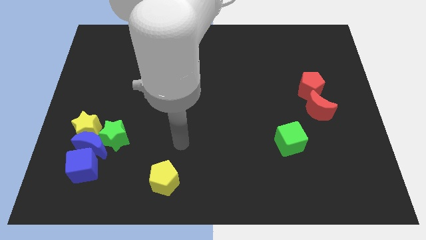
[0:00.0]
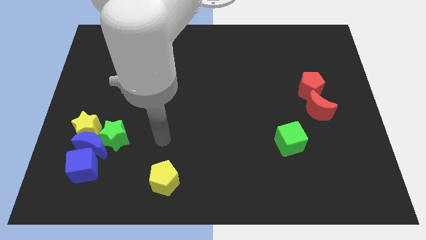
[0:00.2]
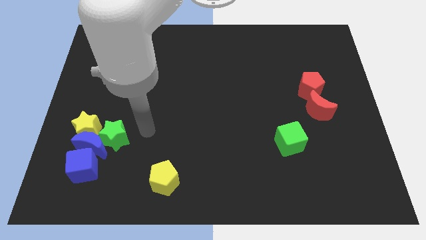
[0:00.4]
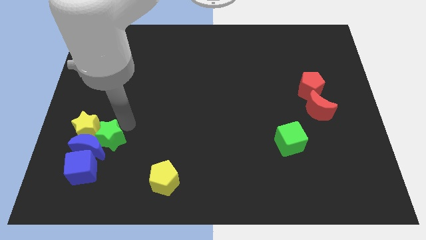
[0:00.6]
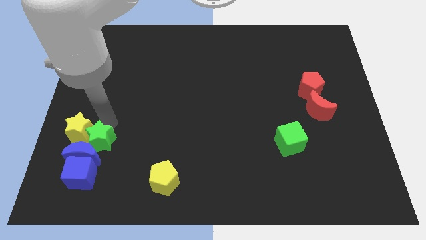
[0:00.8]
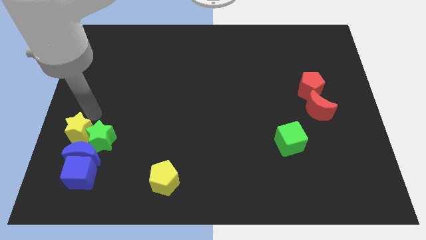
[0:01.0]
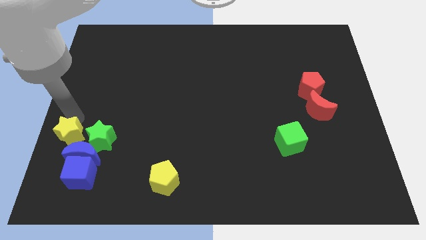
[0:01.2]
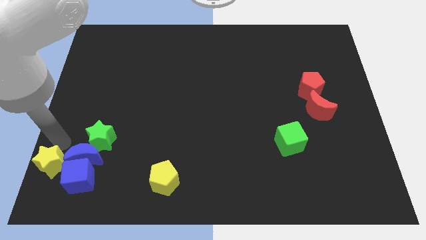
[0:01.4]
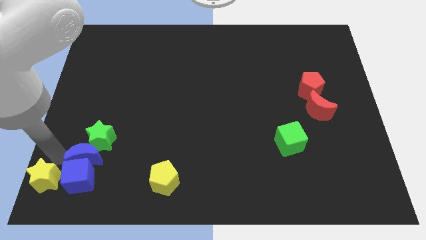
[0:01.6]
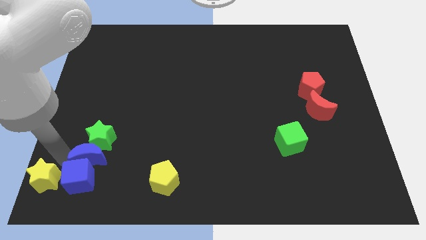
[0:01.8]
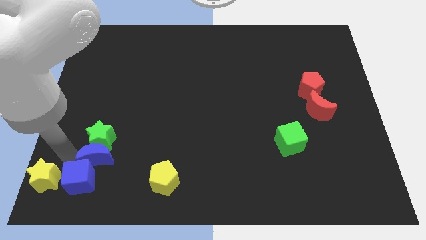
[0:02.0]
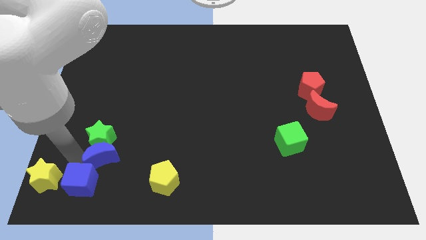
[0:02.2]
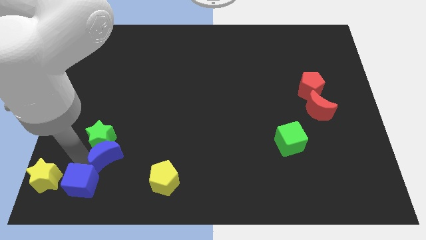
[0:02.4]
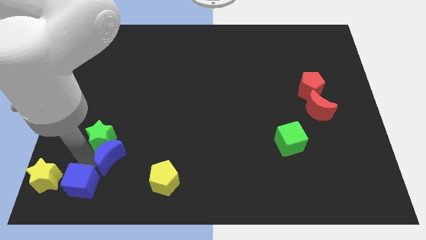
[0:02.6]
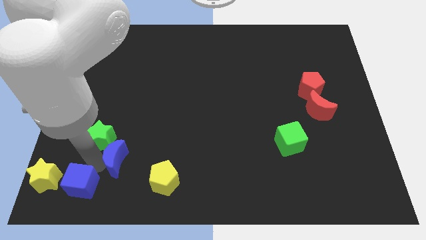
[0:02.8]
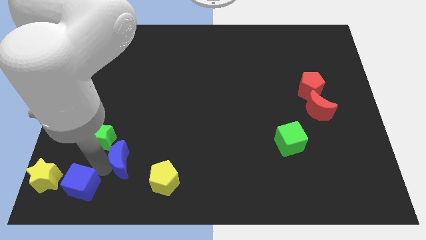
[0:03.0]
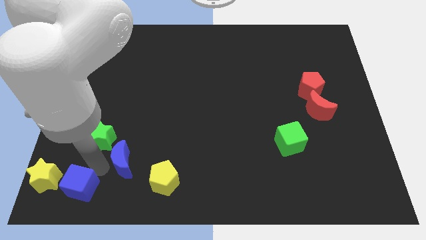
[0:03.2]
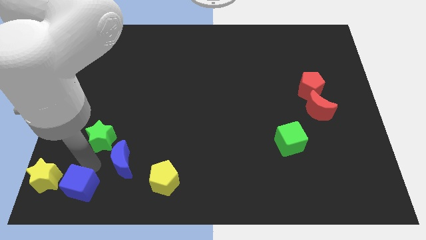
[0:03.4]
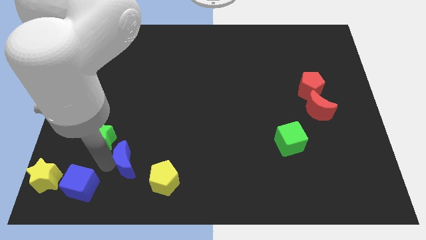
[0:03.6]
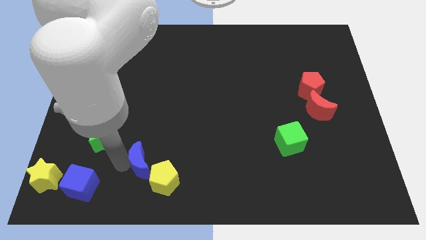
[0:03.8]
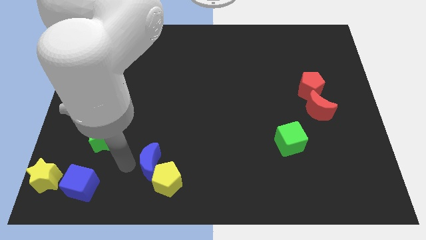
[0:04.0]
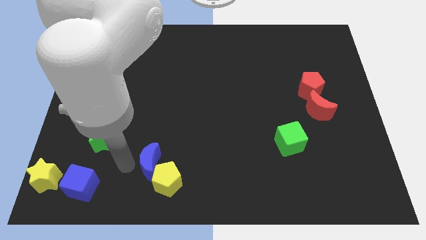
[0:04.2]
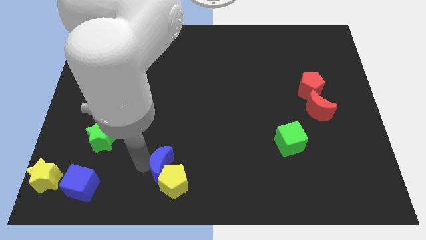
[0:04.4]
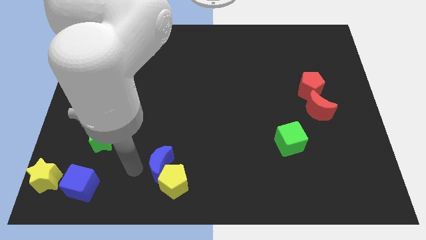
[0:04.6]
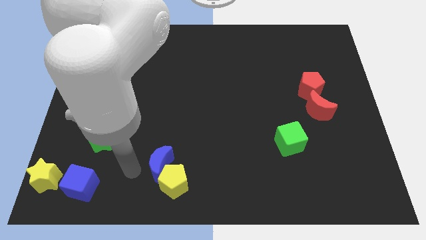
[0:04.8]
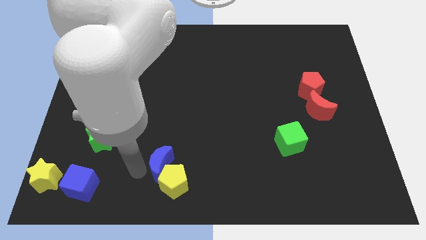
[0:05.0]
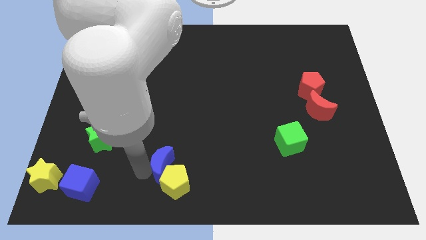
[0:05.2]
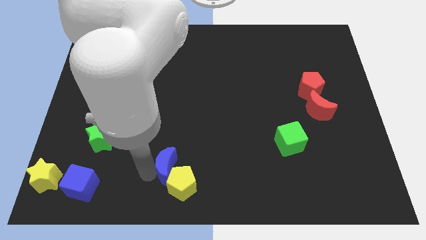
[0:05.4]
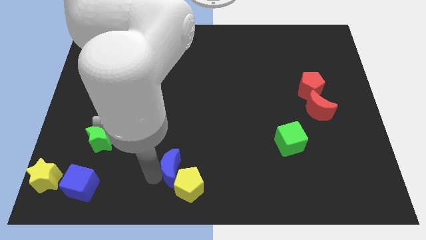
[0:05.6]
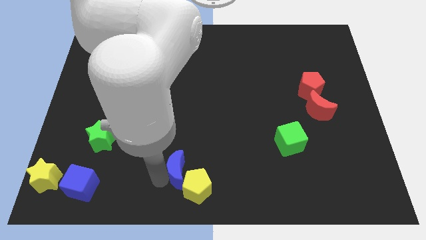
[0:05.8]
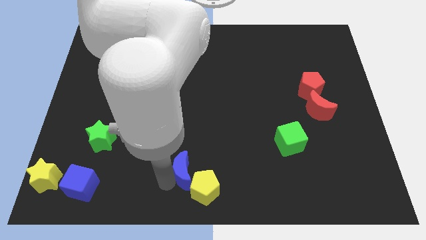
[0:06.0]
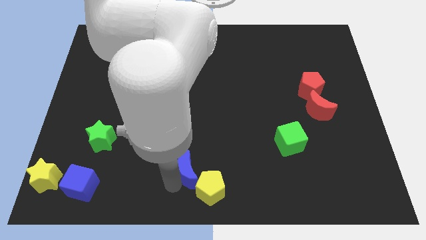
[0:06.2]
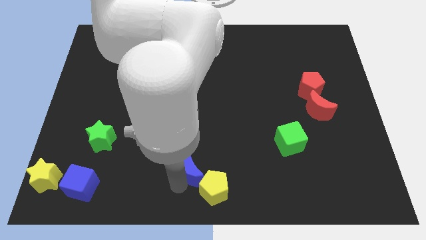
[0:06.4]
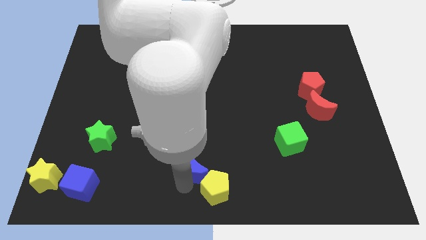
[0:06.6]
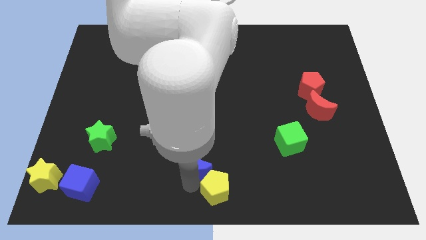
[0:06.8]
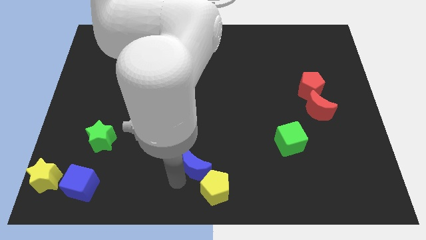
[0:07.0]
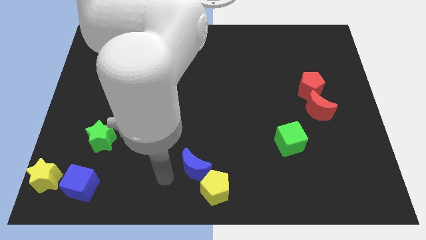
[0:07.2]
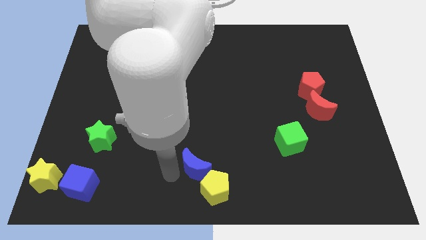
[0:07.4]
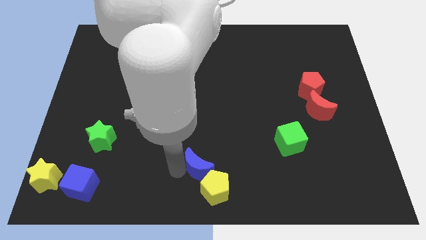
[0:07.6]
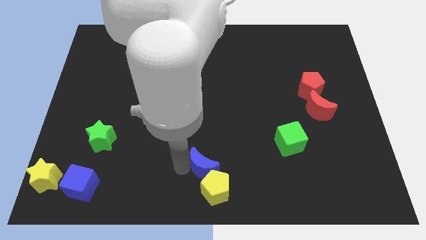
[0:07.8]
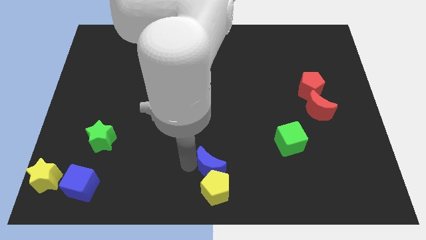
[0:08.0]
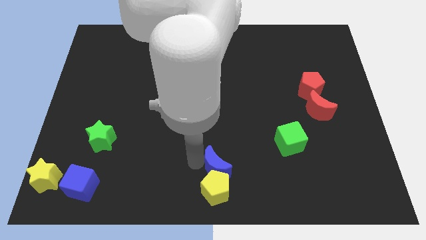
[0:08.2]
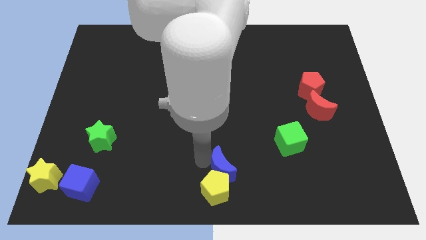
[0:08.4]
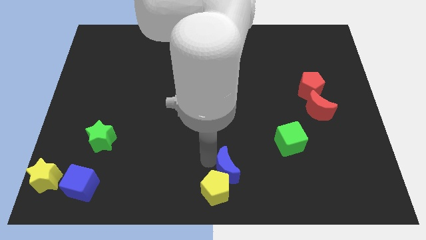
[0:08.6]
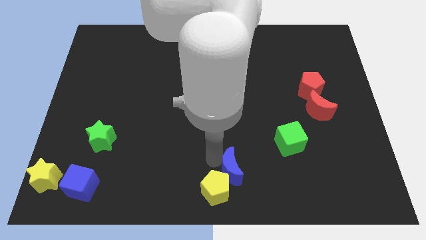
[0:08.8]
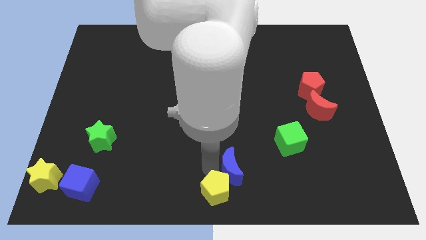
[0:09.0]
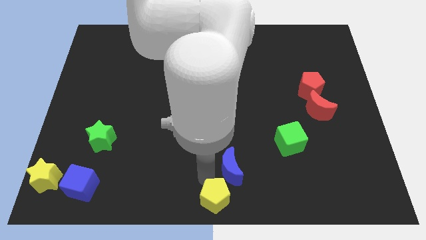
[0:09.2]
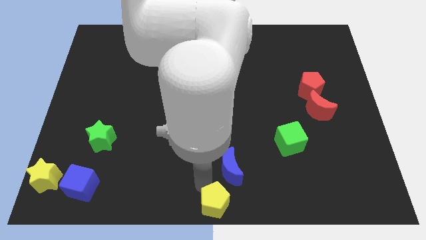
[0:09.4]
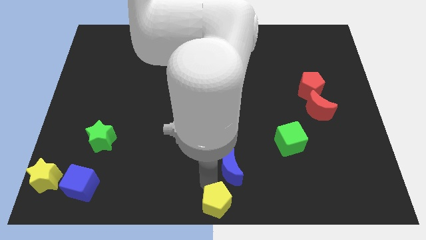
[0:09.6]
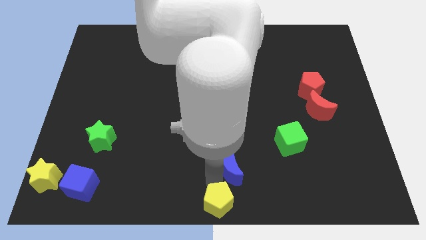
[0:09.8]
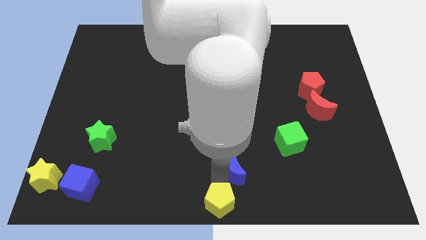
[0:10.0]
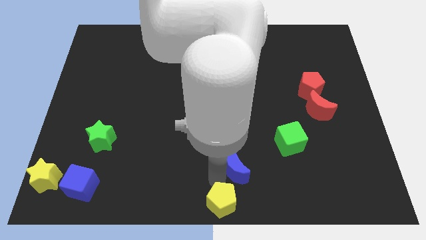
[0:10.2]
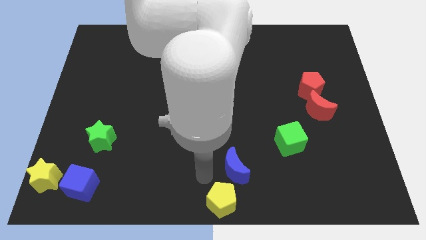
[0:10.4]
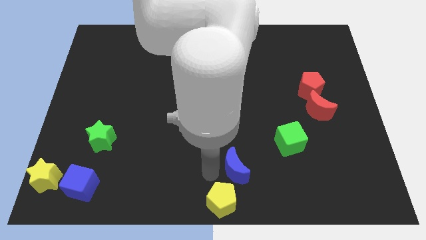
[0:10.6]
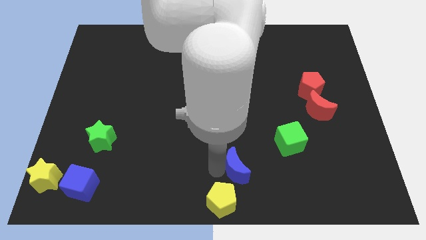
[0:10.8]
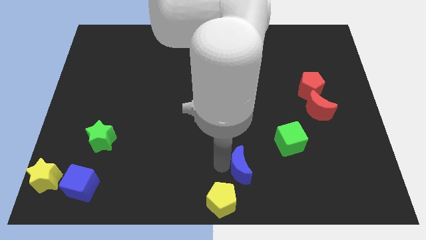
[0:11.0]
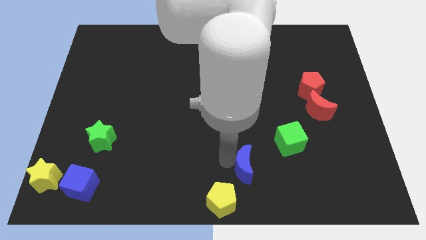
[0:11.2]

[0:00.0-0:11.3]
move the blue moon diagonally down and to the left of the green cube

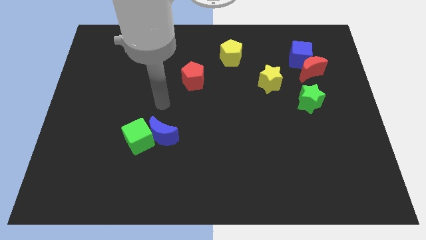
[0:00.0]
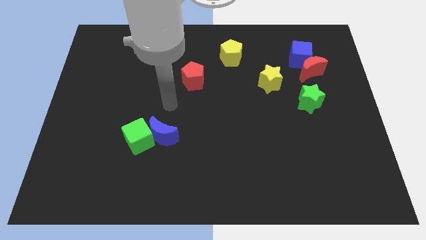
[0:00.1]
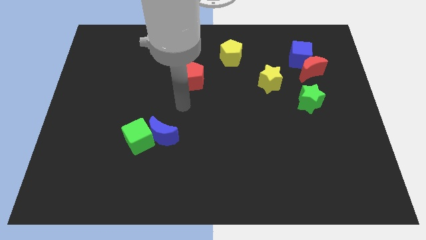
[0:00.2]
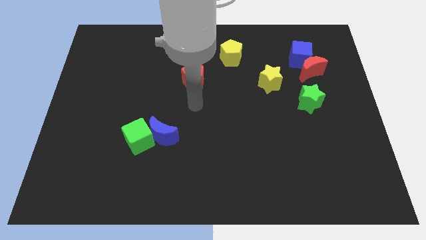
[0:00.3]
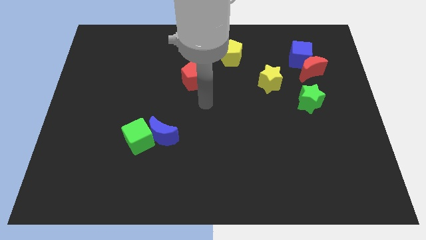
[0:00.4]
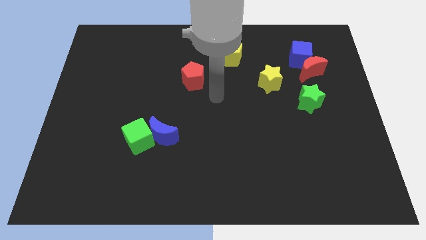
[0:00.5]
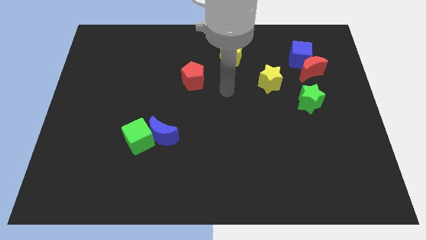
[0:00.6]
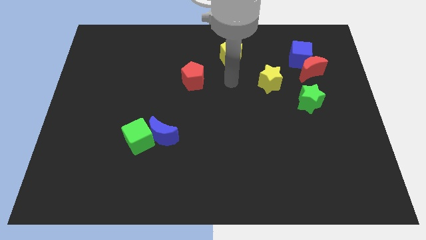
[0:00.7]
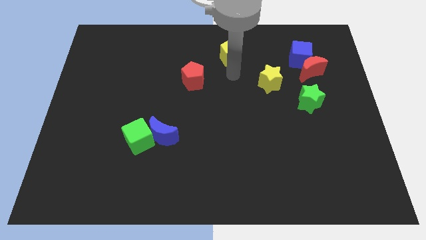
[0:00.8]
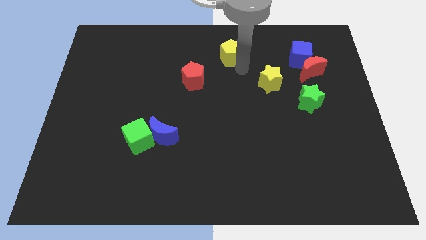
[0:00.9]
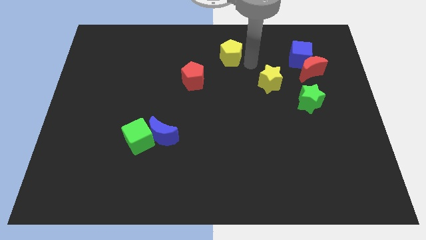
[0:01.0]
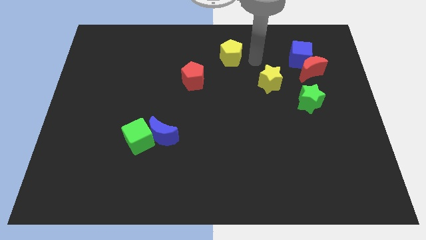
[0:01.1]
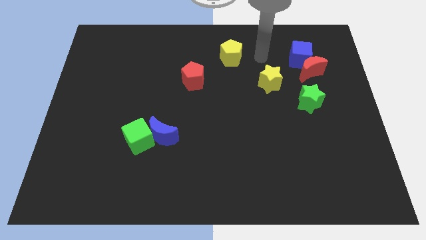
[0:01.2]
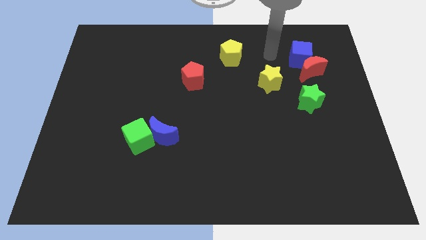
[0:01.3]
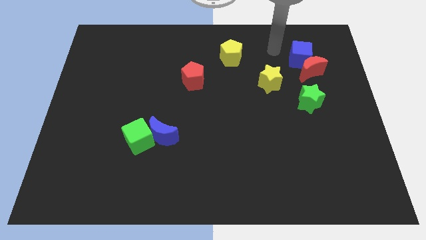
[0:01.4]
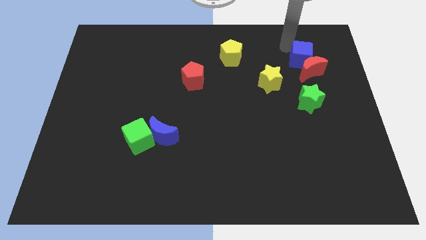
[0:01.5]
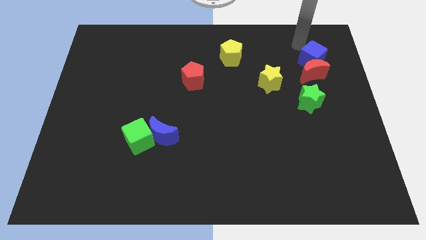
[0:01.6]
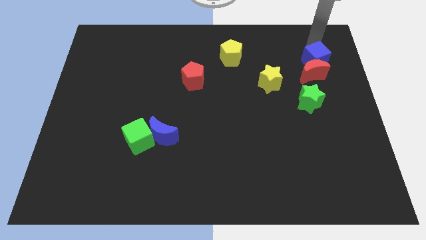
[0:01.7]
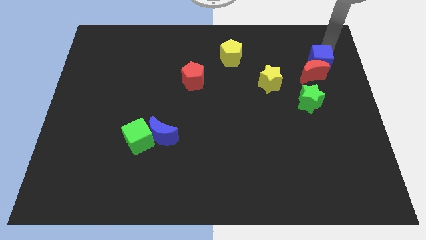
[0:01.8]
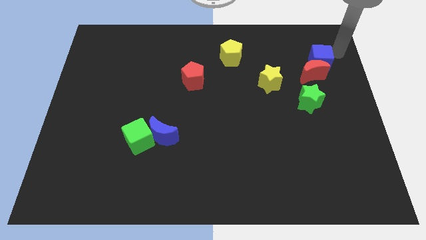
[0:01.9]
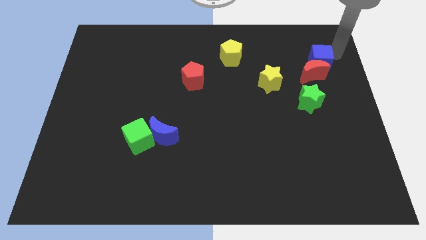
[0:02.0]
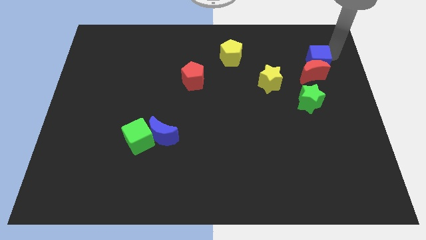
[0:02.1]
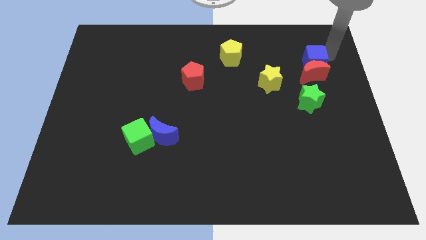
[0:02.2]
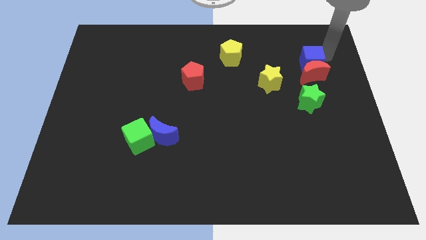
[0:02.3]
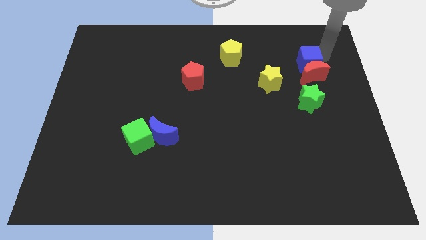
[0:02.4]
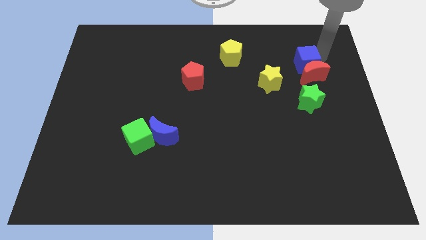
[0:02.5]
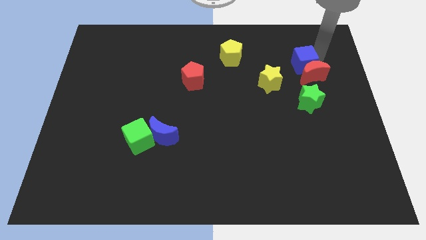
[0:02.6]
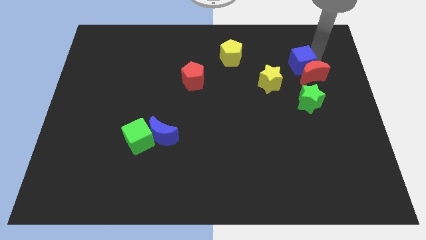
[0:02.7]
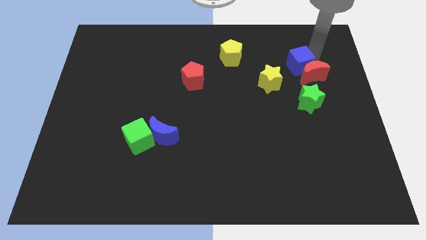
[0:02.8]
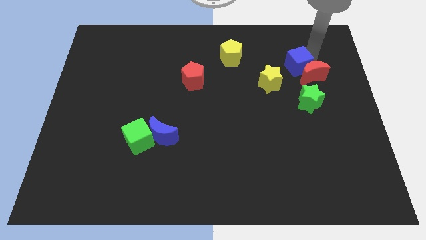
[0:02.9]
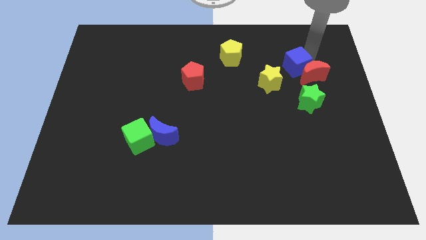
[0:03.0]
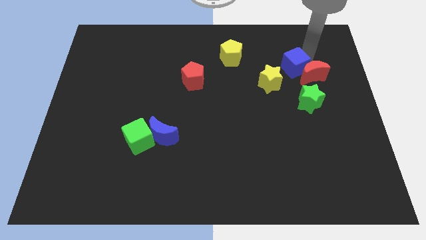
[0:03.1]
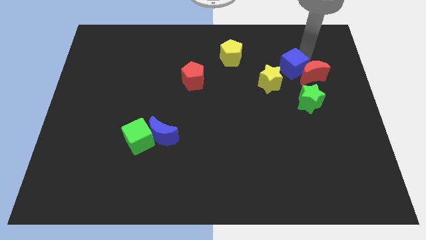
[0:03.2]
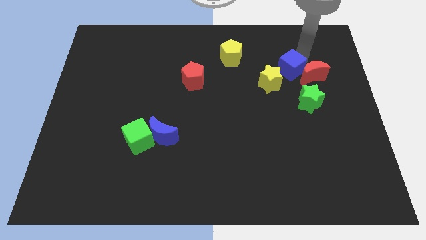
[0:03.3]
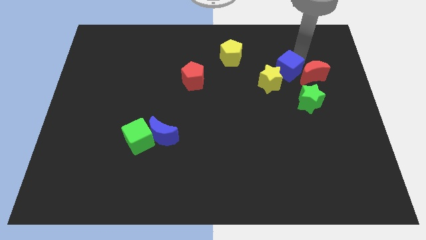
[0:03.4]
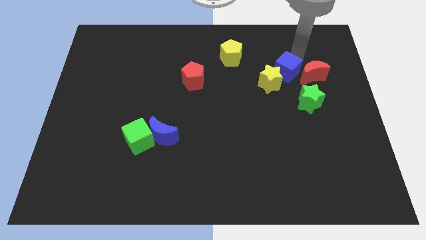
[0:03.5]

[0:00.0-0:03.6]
put the blue cube diagonally up and to the left of the green star
